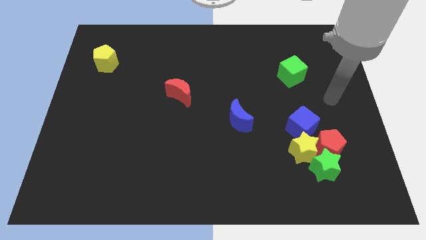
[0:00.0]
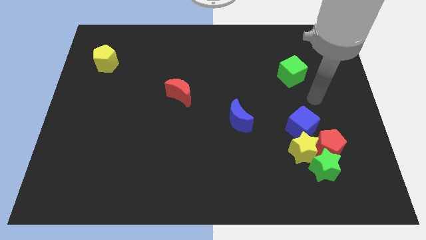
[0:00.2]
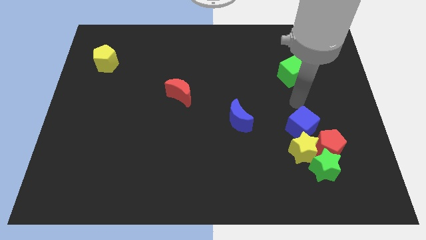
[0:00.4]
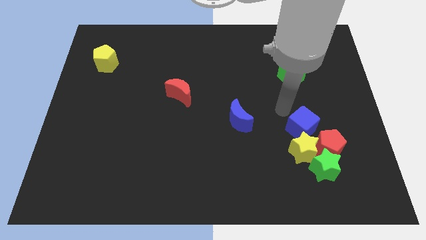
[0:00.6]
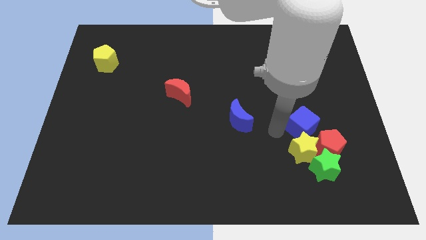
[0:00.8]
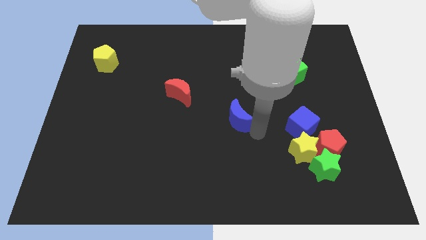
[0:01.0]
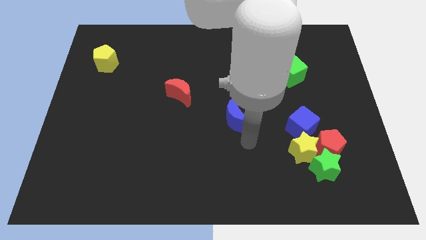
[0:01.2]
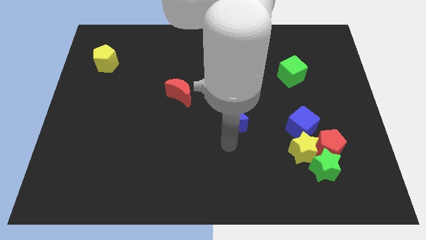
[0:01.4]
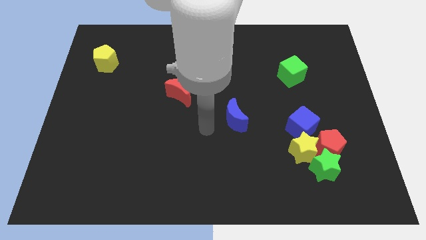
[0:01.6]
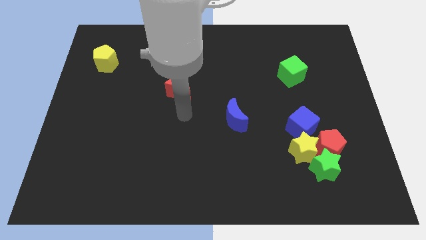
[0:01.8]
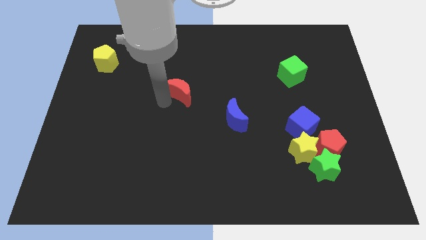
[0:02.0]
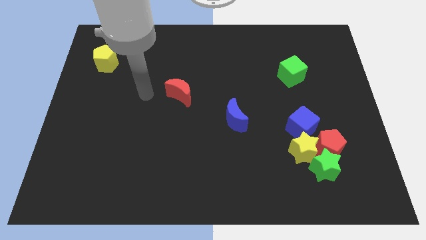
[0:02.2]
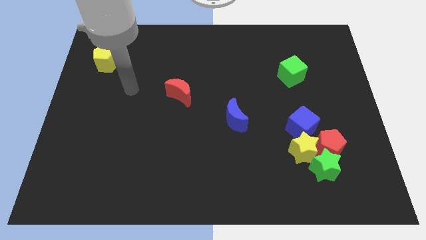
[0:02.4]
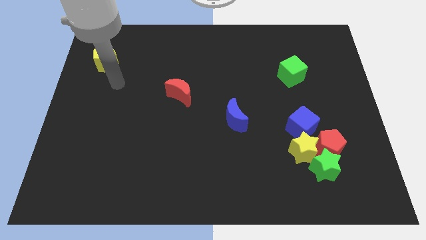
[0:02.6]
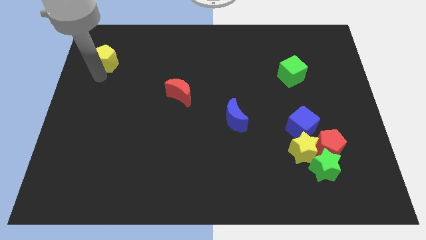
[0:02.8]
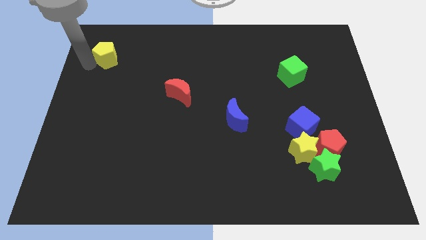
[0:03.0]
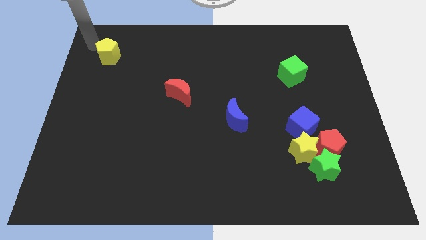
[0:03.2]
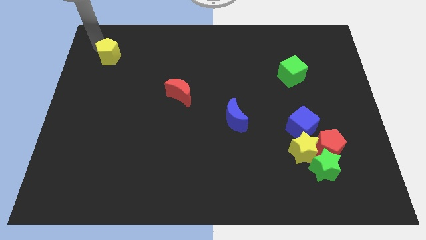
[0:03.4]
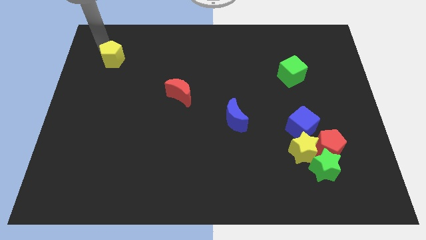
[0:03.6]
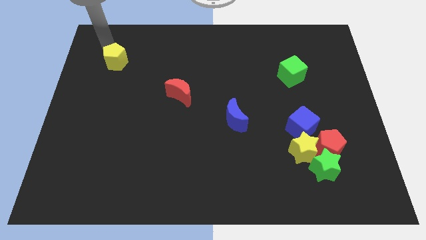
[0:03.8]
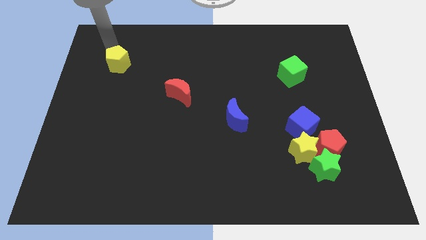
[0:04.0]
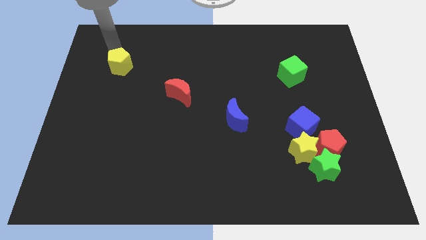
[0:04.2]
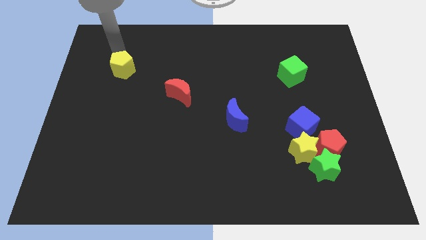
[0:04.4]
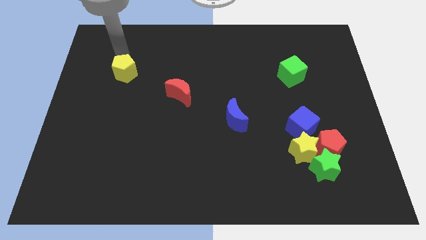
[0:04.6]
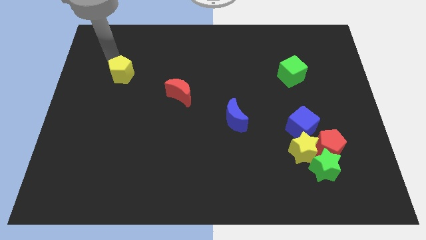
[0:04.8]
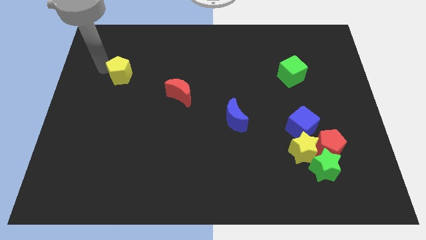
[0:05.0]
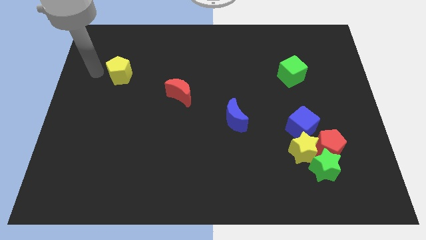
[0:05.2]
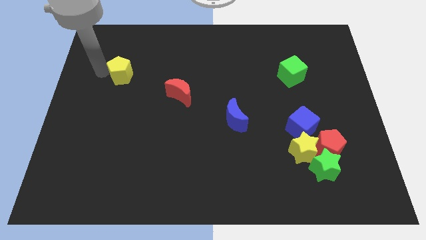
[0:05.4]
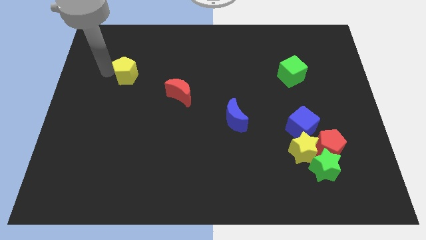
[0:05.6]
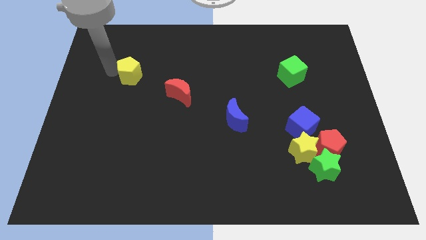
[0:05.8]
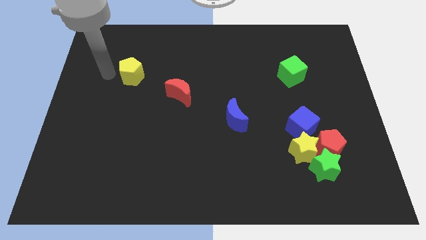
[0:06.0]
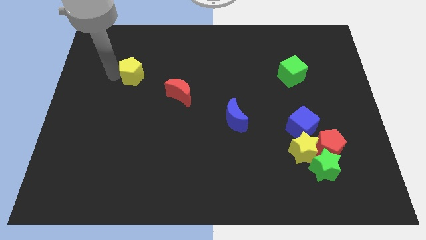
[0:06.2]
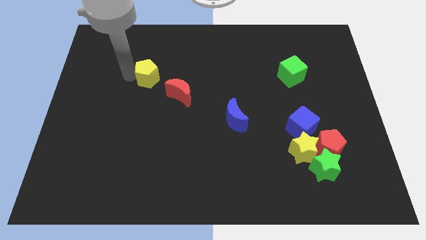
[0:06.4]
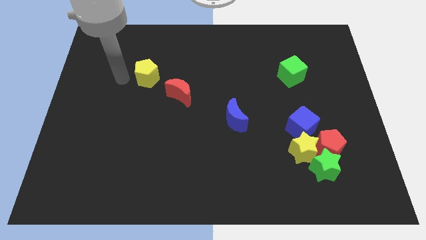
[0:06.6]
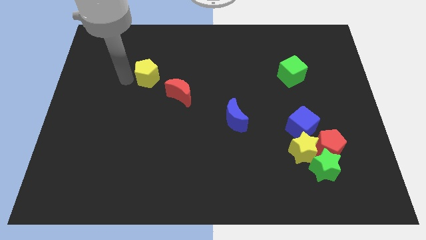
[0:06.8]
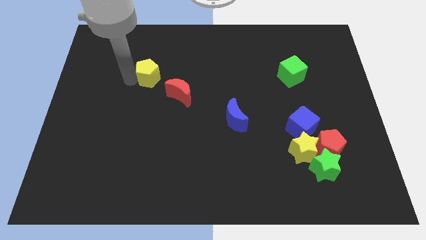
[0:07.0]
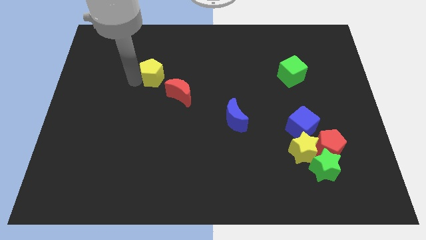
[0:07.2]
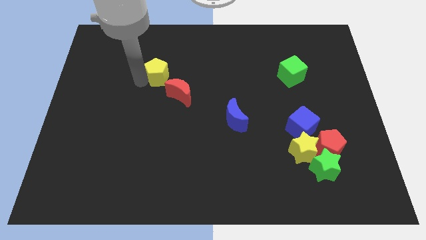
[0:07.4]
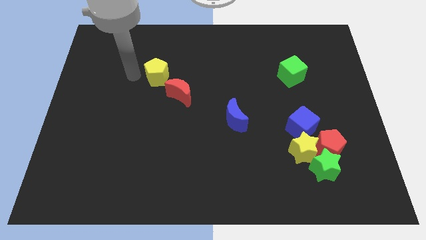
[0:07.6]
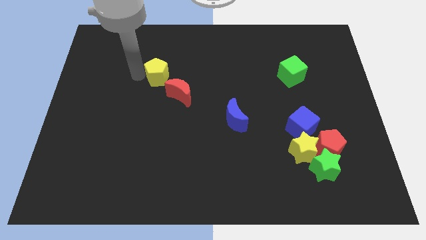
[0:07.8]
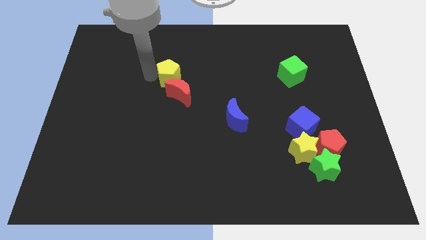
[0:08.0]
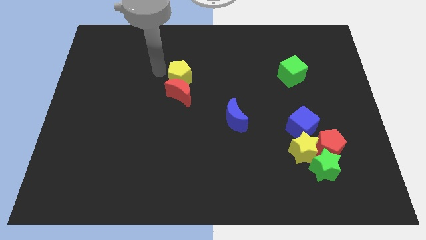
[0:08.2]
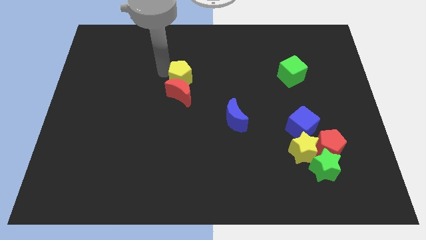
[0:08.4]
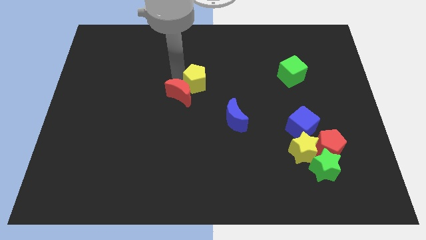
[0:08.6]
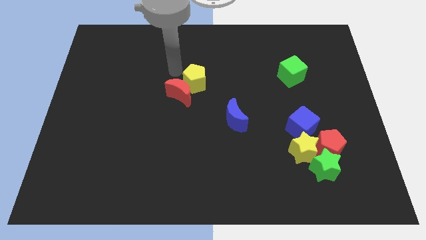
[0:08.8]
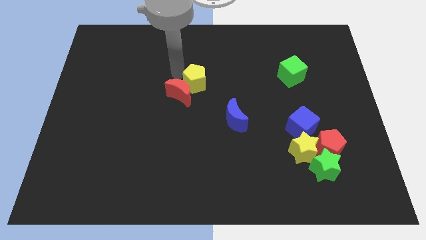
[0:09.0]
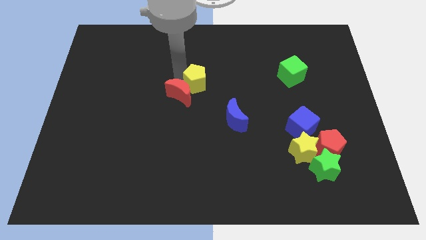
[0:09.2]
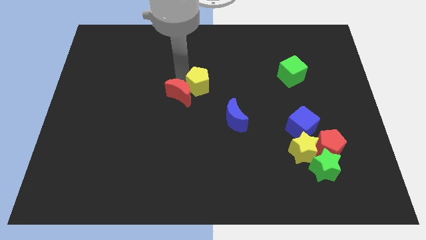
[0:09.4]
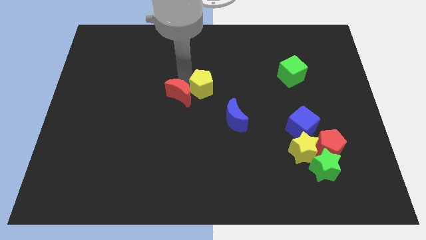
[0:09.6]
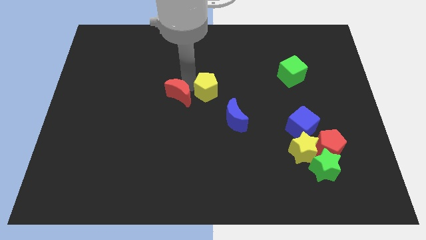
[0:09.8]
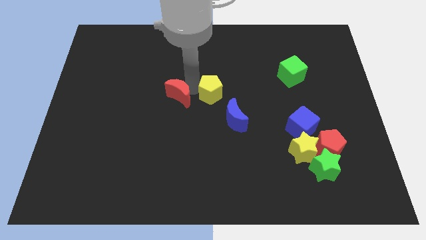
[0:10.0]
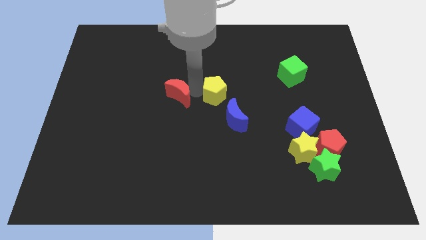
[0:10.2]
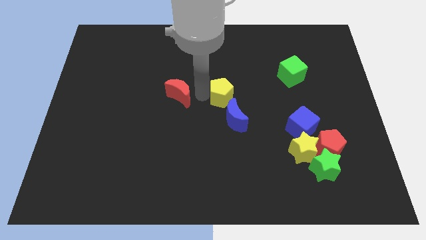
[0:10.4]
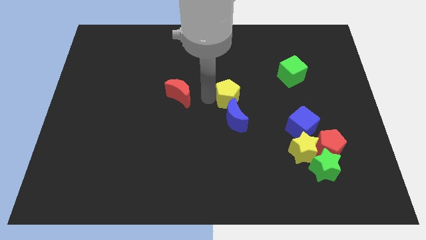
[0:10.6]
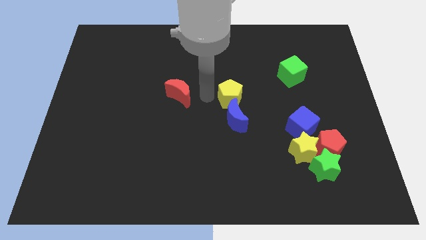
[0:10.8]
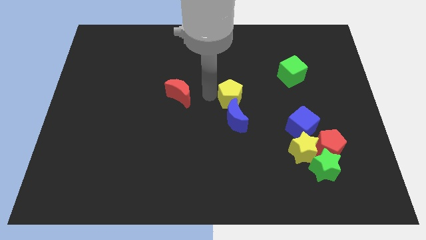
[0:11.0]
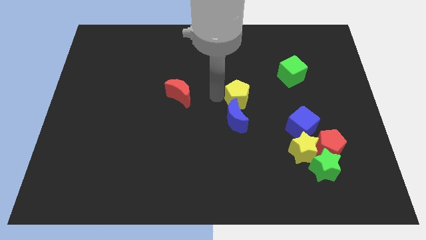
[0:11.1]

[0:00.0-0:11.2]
slide the yellow pentagon diagonally up and to the right of the blue moon

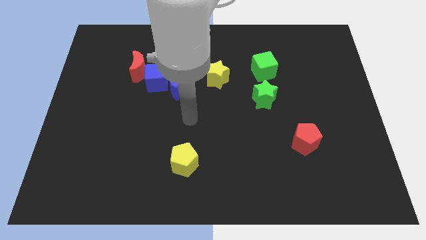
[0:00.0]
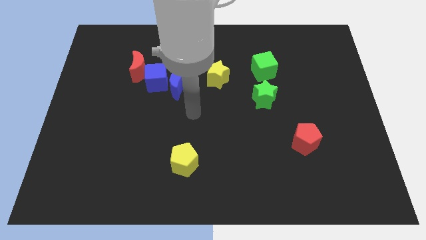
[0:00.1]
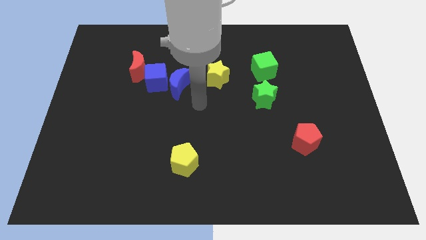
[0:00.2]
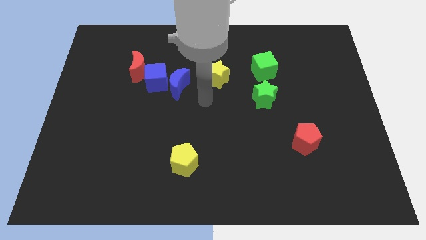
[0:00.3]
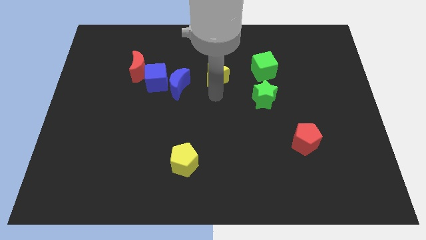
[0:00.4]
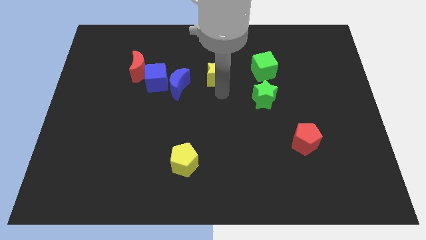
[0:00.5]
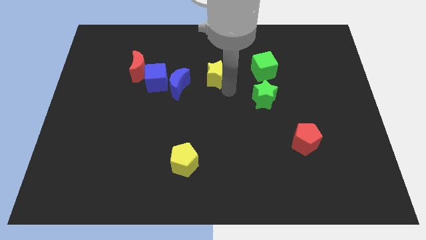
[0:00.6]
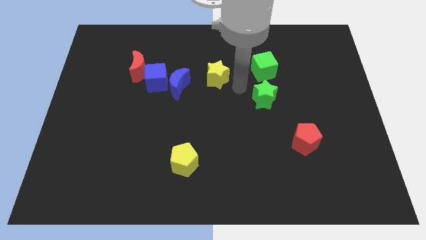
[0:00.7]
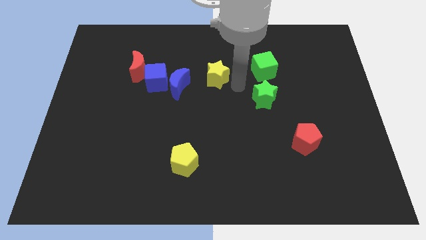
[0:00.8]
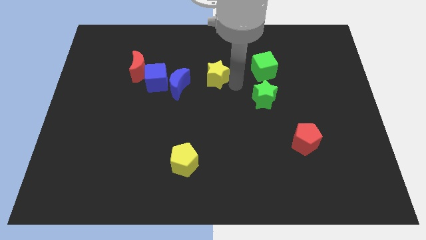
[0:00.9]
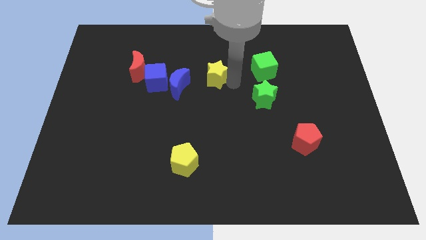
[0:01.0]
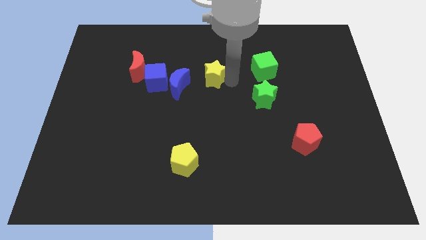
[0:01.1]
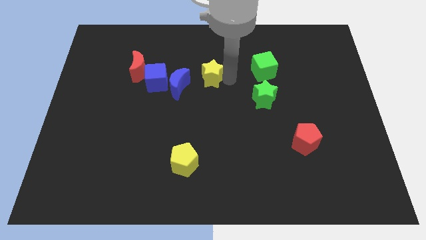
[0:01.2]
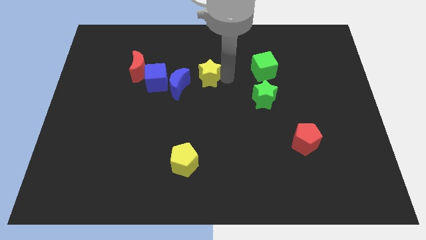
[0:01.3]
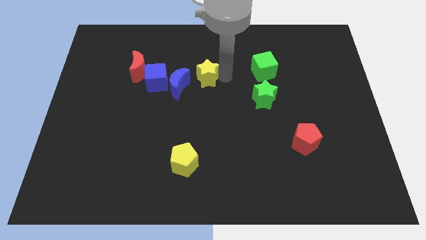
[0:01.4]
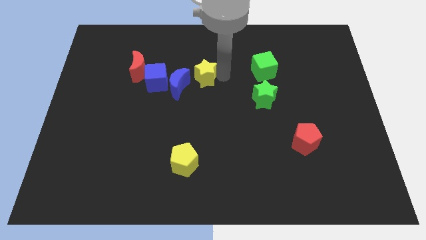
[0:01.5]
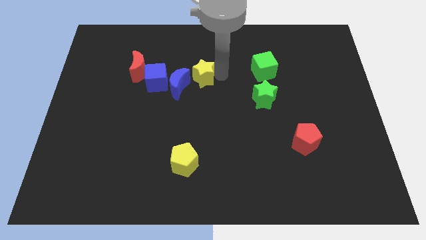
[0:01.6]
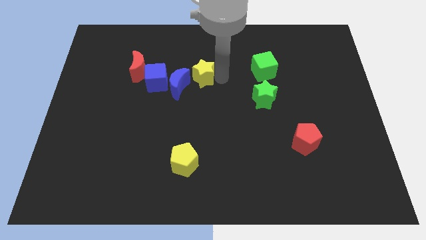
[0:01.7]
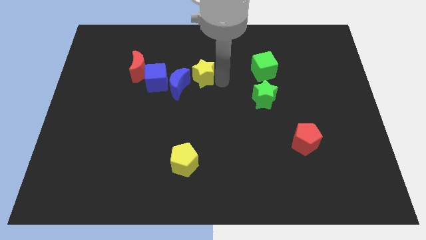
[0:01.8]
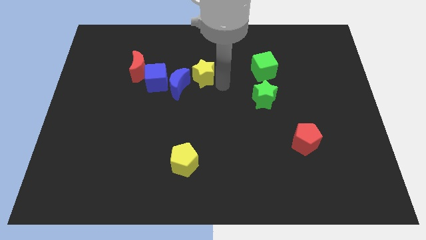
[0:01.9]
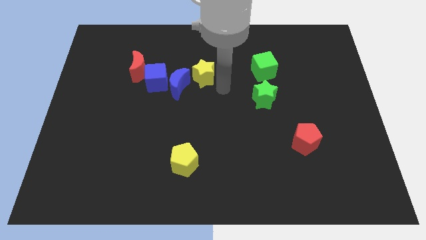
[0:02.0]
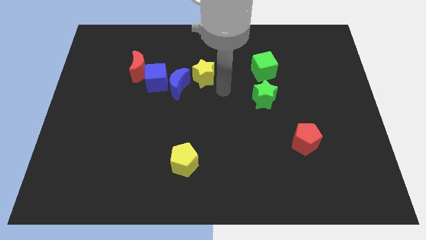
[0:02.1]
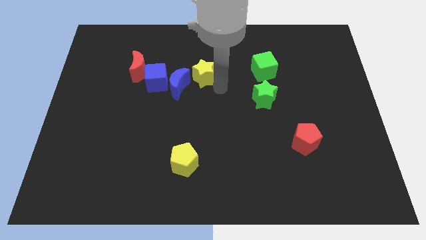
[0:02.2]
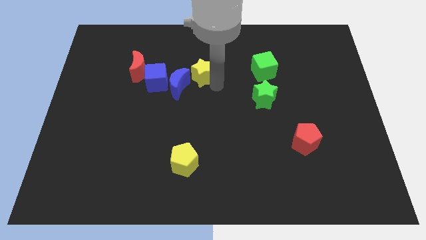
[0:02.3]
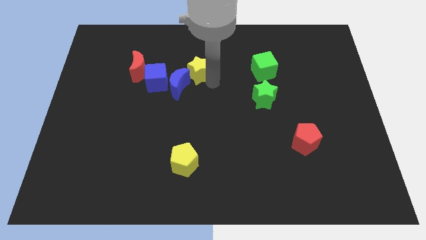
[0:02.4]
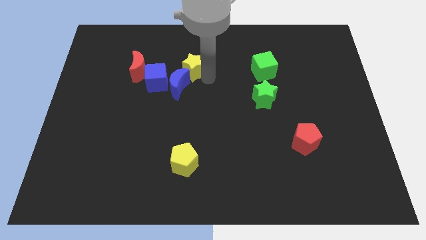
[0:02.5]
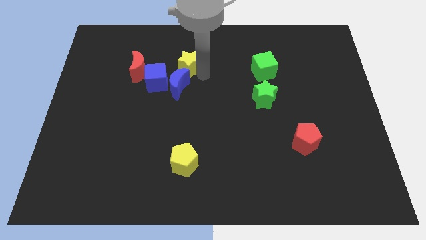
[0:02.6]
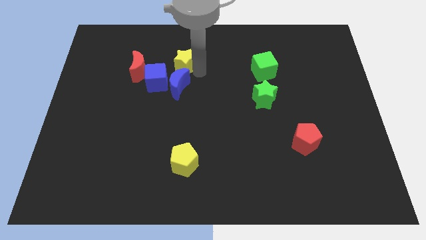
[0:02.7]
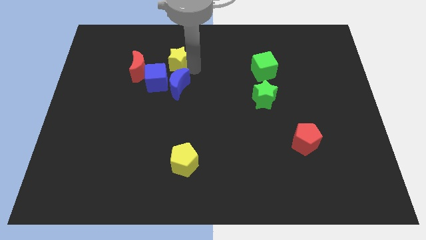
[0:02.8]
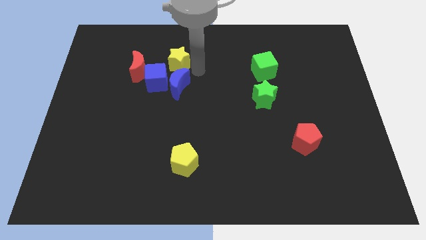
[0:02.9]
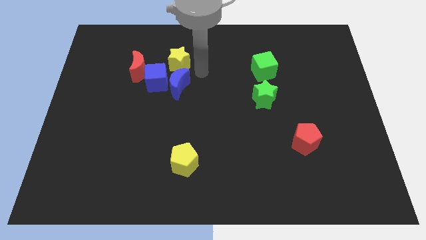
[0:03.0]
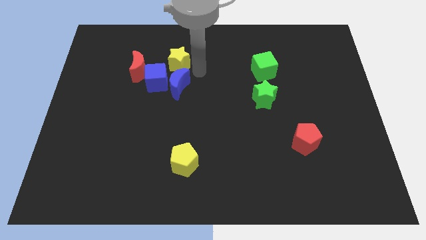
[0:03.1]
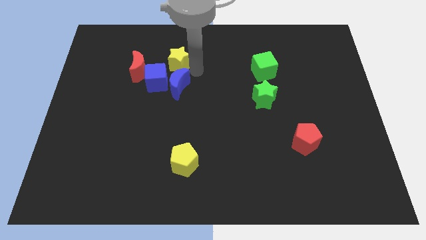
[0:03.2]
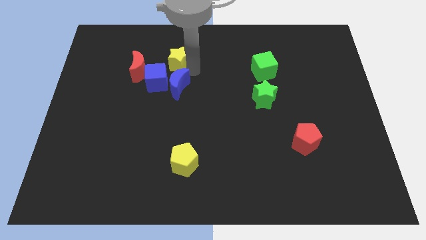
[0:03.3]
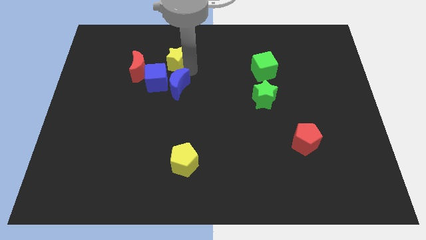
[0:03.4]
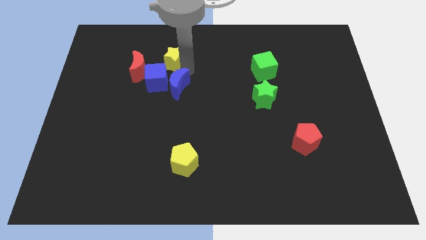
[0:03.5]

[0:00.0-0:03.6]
slide the yellow star to the top right side of the red moon
